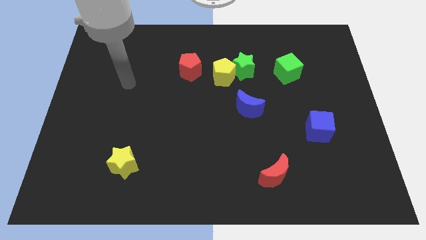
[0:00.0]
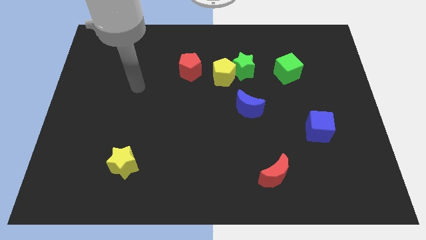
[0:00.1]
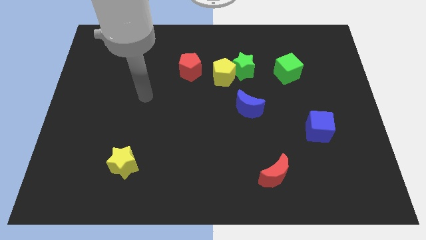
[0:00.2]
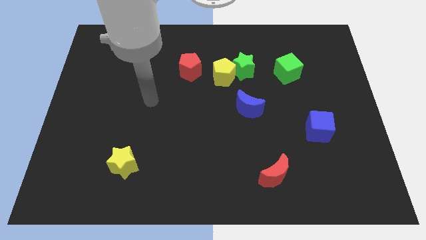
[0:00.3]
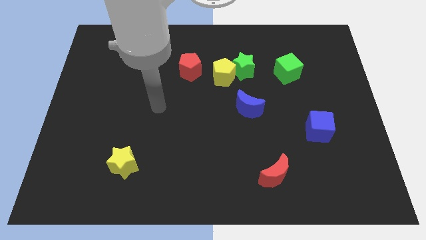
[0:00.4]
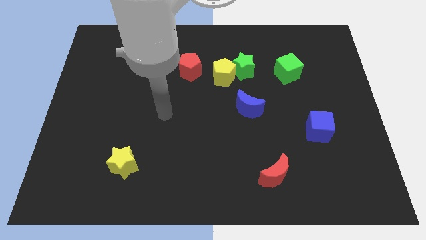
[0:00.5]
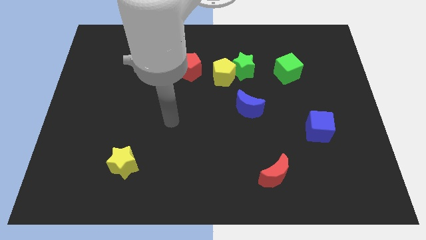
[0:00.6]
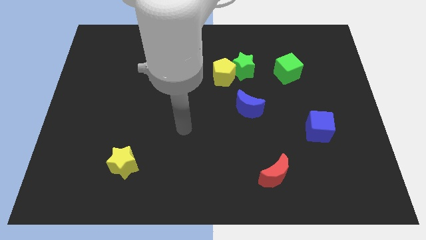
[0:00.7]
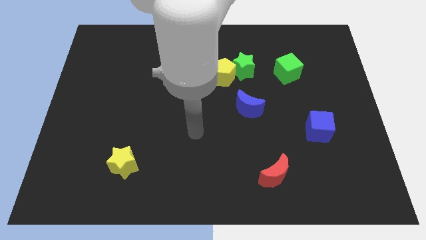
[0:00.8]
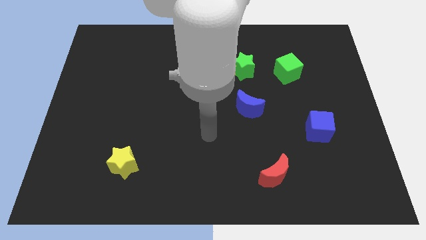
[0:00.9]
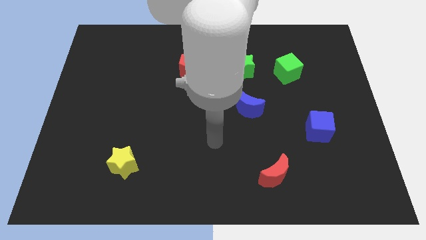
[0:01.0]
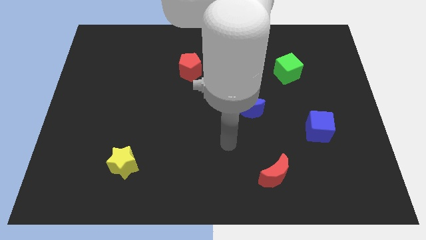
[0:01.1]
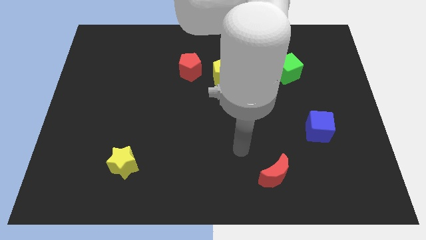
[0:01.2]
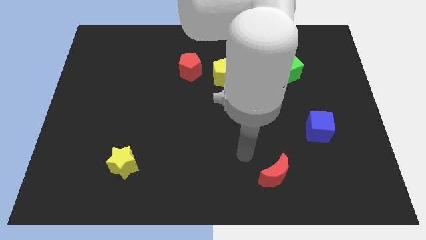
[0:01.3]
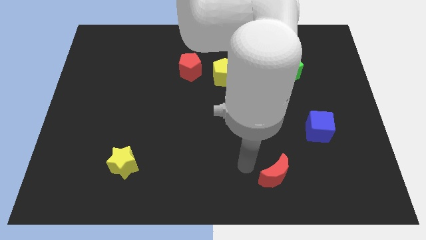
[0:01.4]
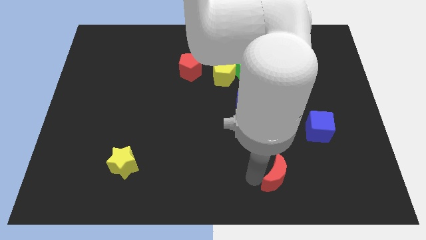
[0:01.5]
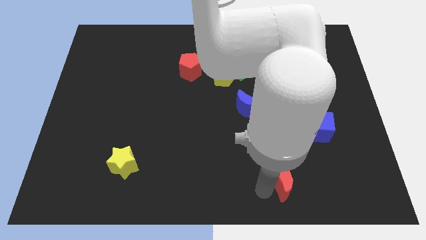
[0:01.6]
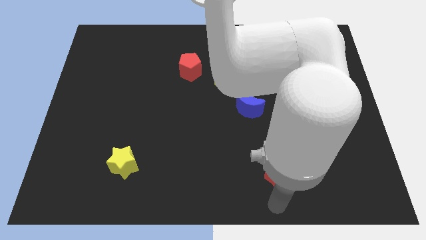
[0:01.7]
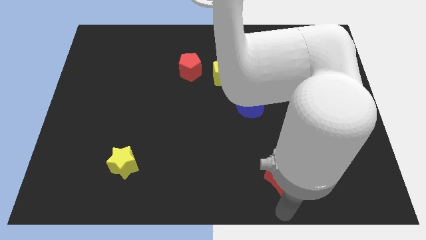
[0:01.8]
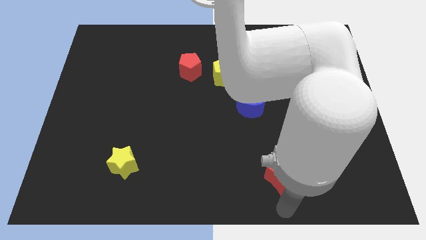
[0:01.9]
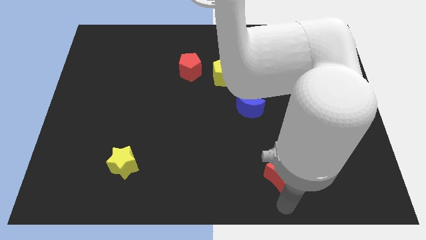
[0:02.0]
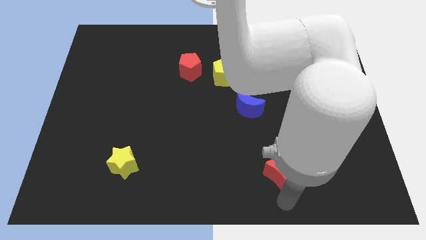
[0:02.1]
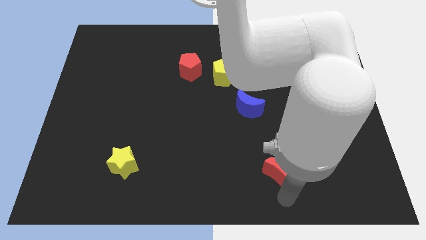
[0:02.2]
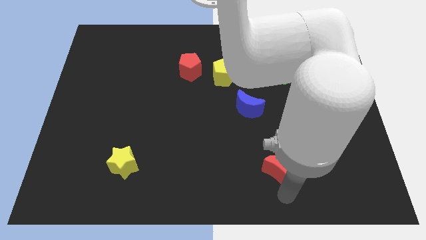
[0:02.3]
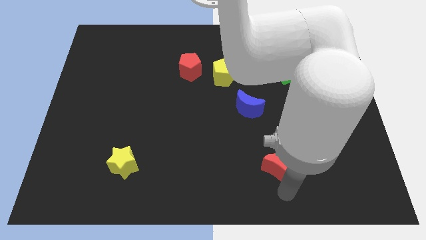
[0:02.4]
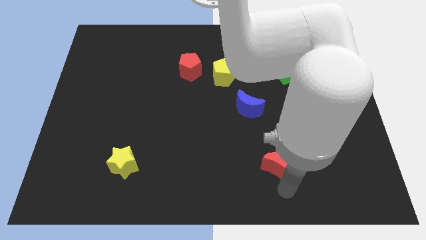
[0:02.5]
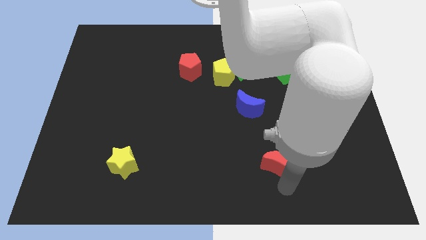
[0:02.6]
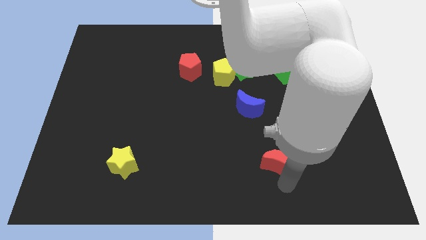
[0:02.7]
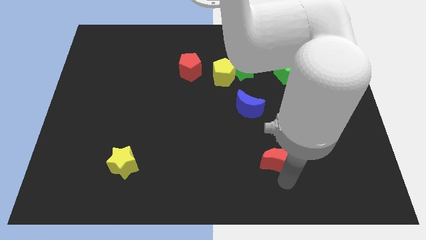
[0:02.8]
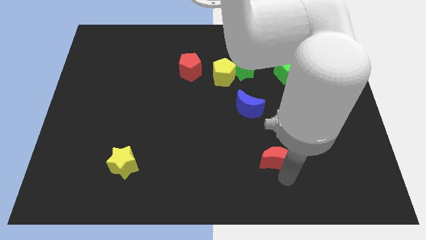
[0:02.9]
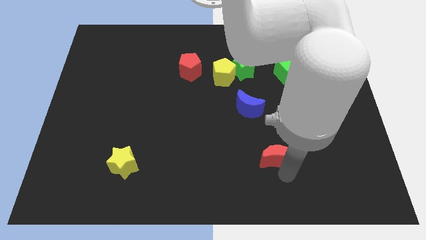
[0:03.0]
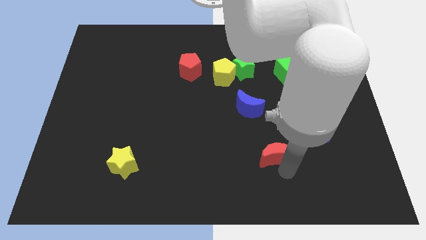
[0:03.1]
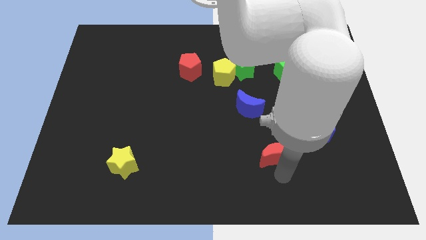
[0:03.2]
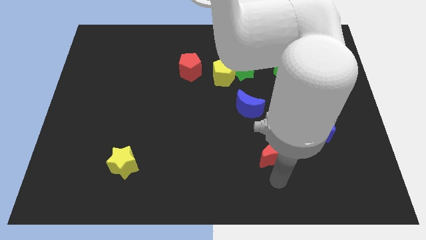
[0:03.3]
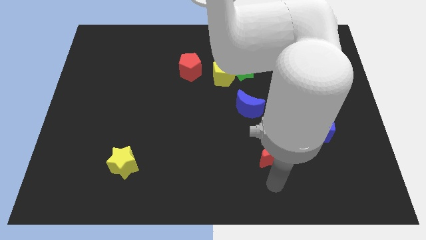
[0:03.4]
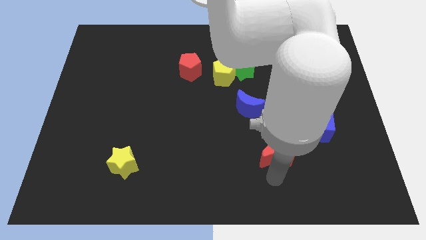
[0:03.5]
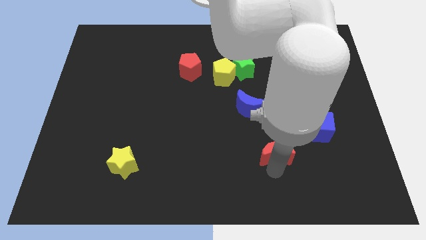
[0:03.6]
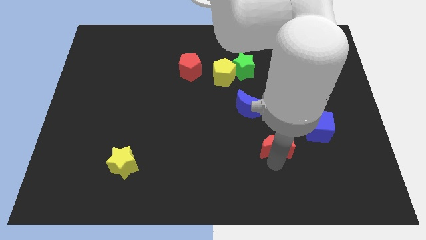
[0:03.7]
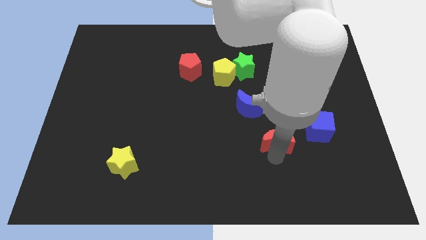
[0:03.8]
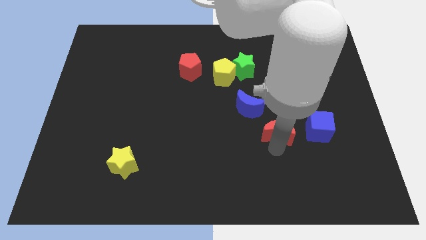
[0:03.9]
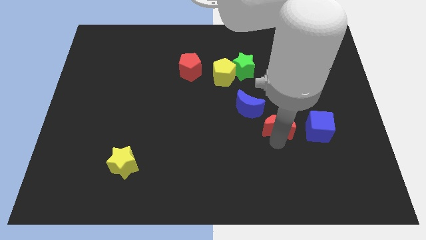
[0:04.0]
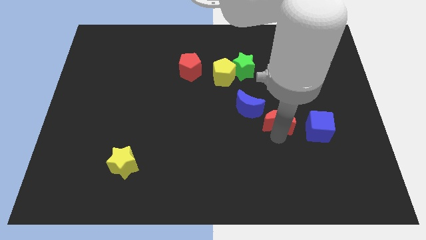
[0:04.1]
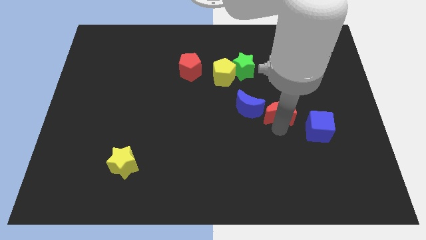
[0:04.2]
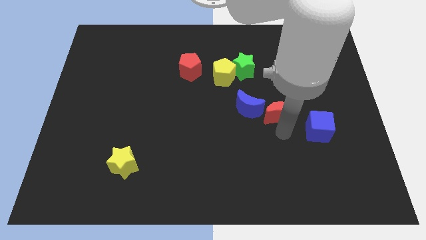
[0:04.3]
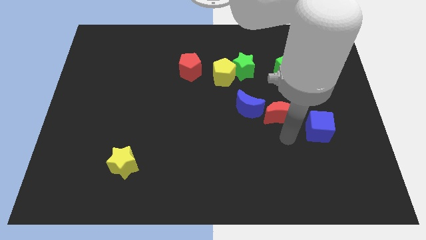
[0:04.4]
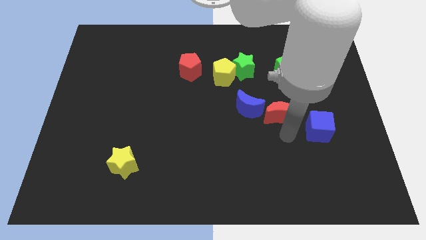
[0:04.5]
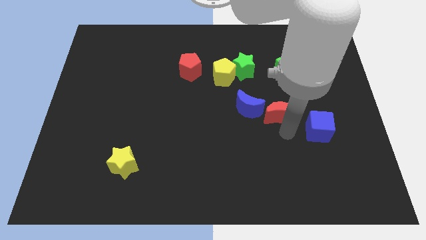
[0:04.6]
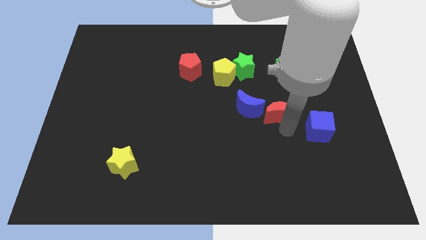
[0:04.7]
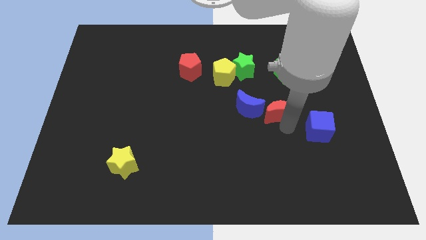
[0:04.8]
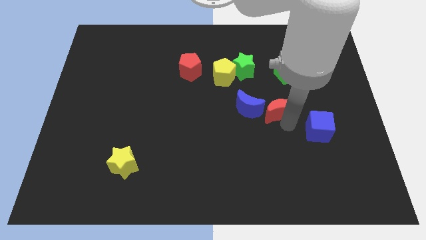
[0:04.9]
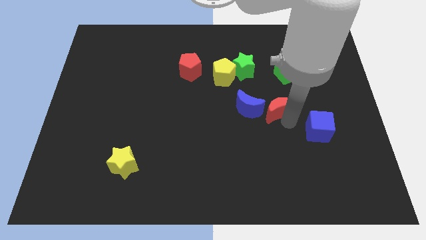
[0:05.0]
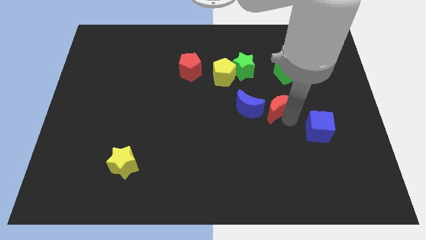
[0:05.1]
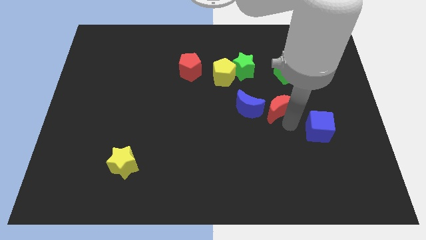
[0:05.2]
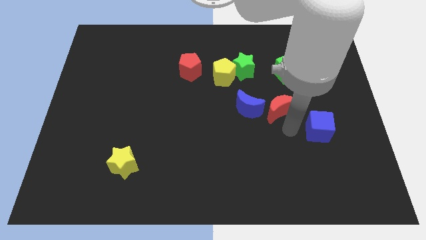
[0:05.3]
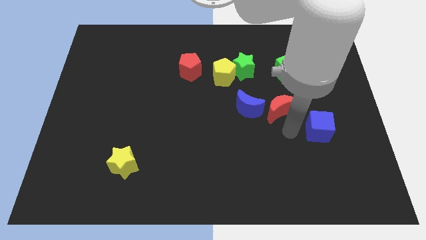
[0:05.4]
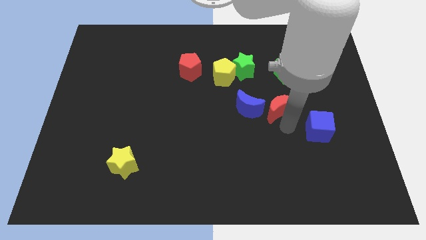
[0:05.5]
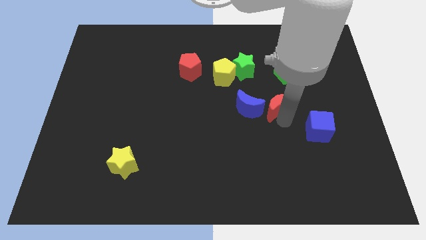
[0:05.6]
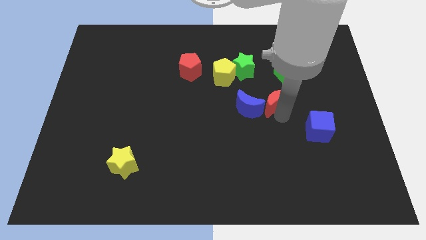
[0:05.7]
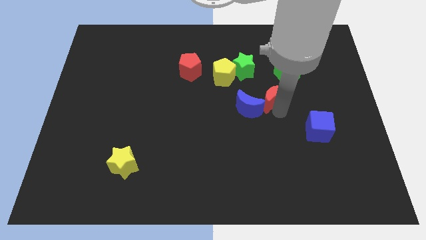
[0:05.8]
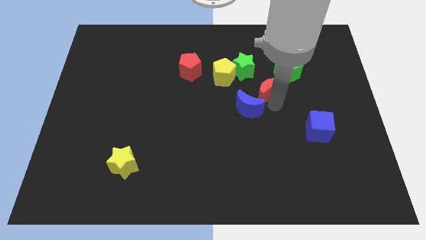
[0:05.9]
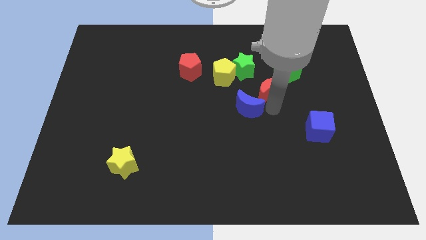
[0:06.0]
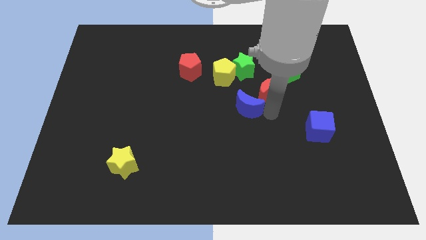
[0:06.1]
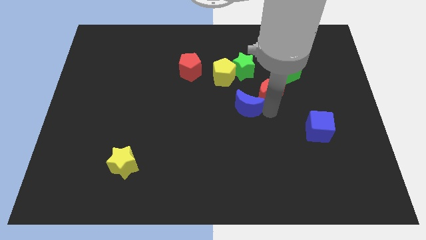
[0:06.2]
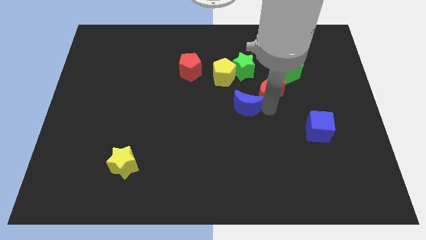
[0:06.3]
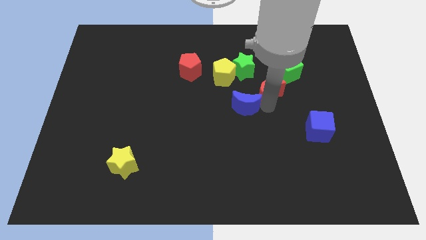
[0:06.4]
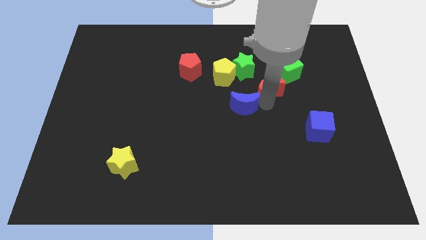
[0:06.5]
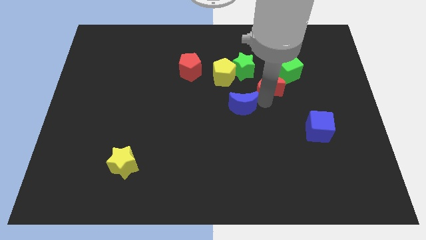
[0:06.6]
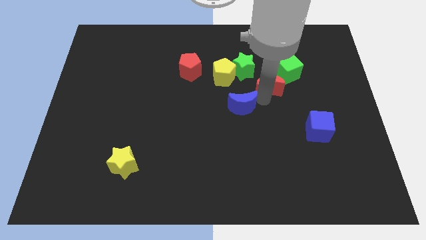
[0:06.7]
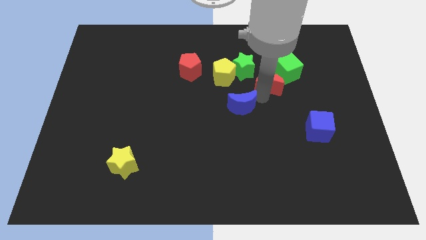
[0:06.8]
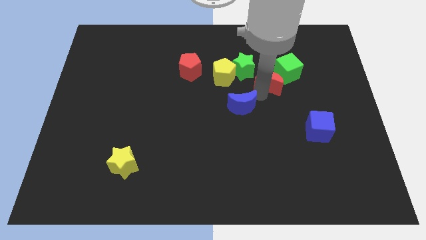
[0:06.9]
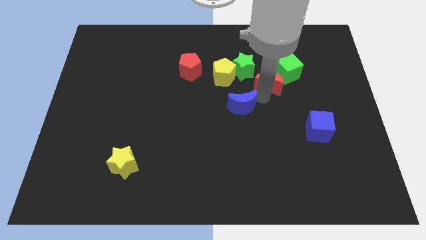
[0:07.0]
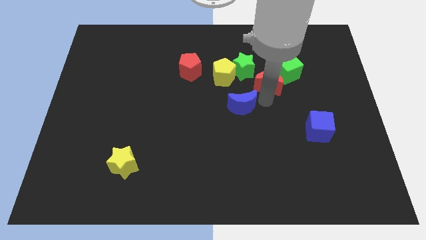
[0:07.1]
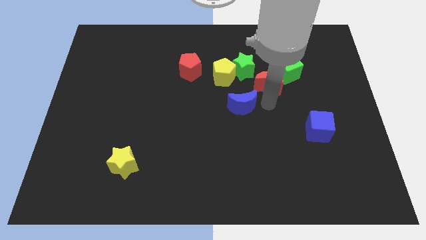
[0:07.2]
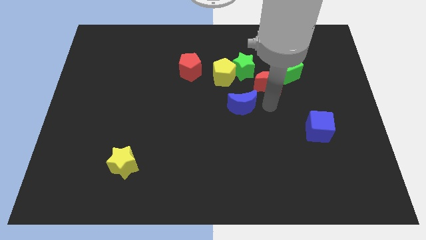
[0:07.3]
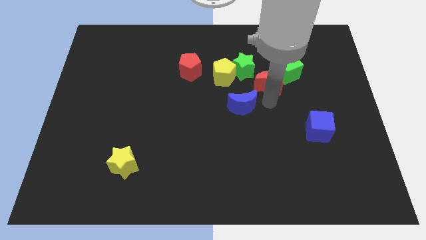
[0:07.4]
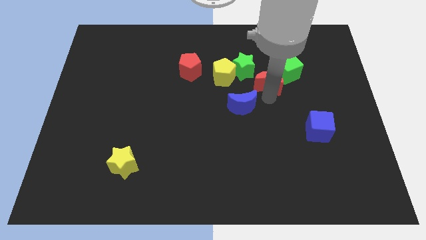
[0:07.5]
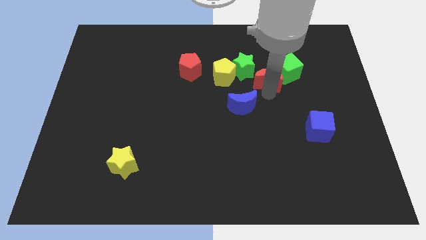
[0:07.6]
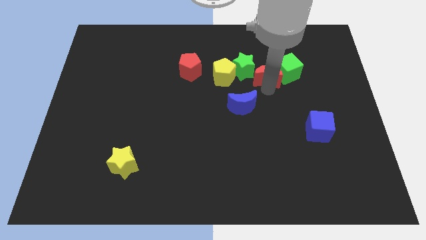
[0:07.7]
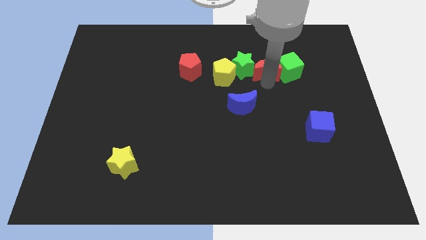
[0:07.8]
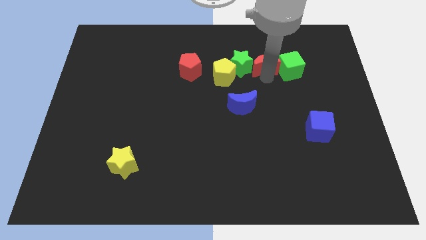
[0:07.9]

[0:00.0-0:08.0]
put the red moon diagonally up and to the right of the green star
